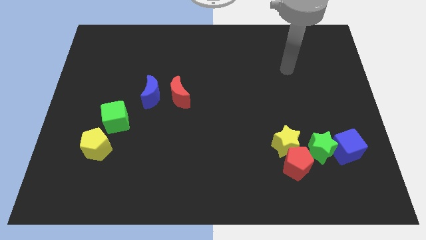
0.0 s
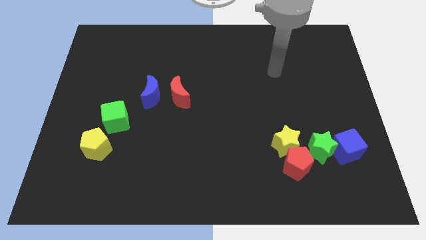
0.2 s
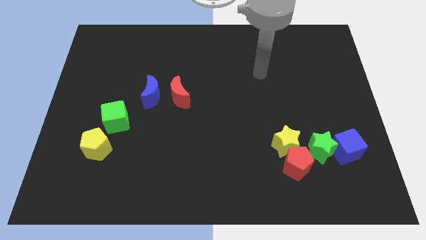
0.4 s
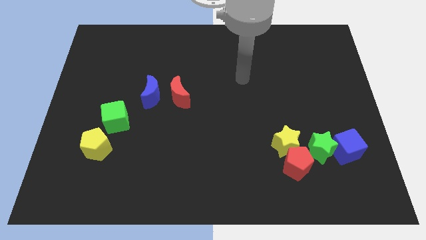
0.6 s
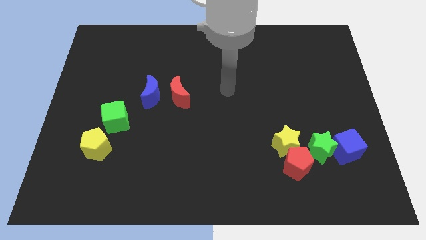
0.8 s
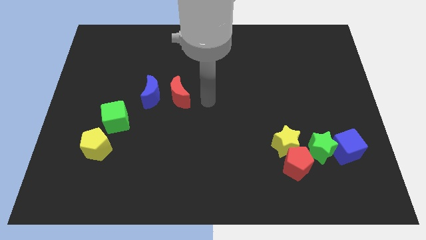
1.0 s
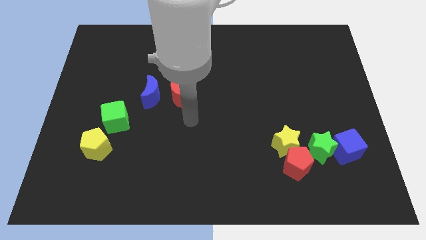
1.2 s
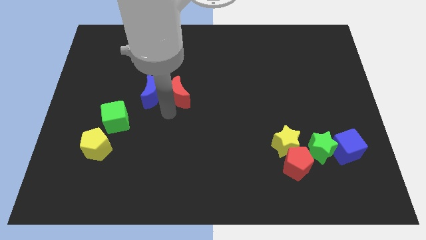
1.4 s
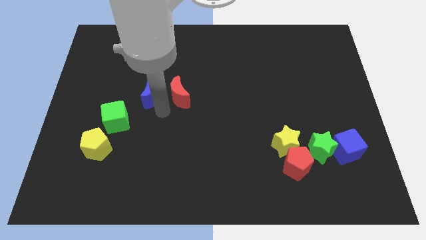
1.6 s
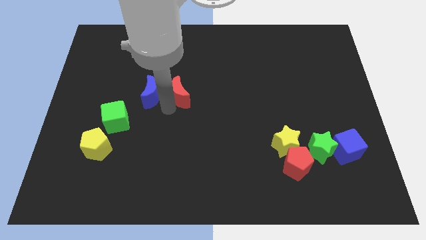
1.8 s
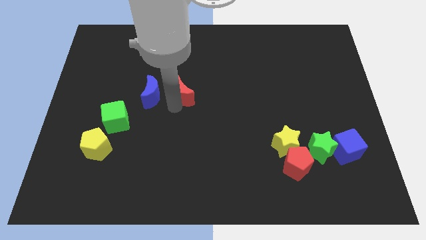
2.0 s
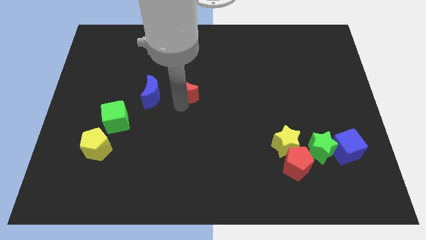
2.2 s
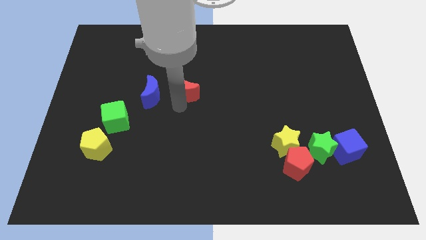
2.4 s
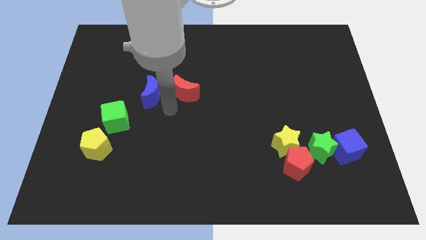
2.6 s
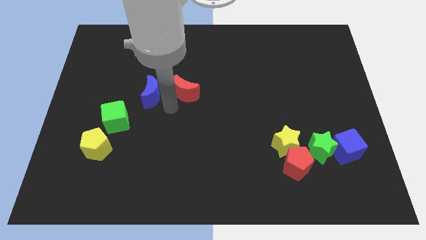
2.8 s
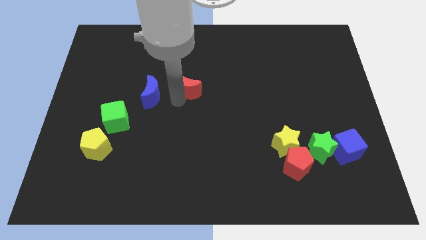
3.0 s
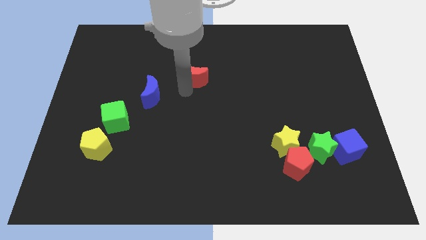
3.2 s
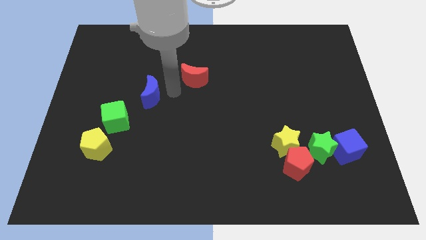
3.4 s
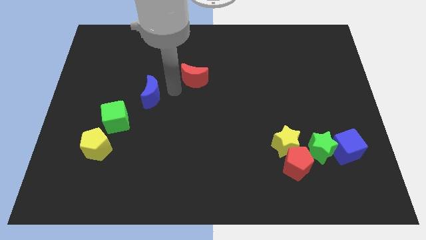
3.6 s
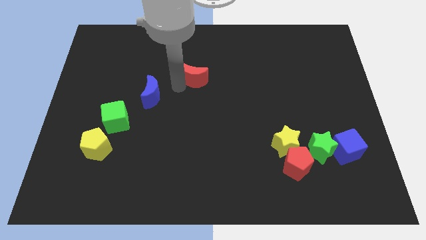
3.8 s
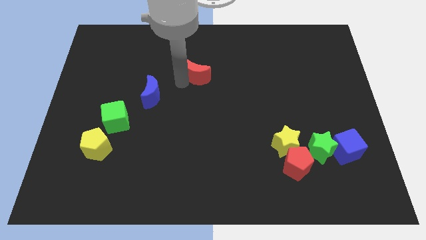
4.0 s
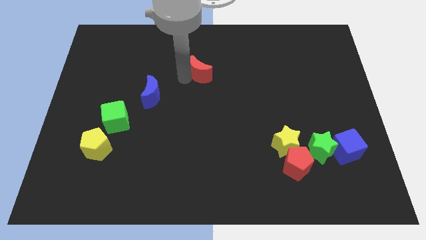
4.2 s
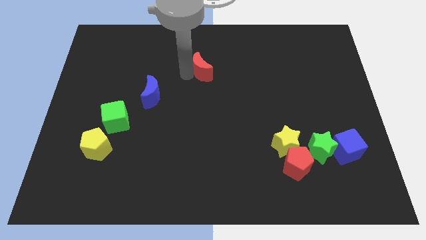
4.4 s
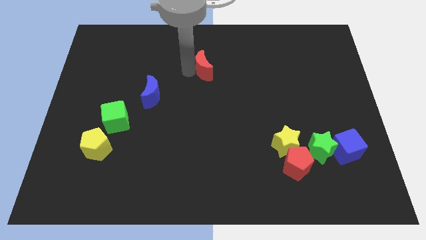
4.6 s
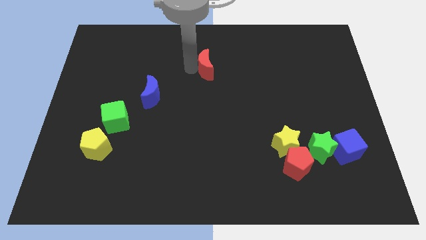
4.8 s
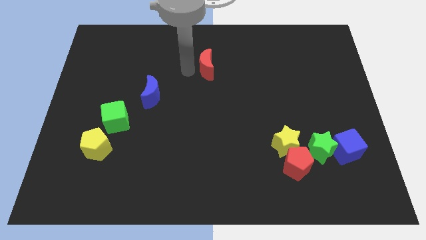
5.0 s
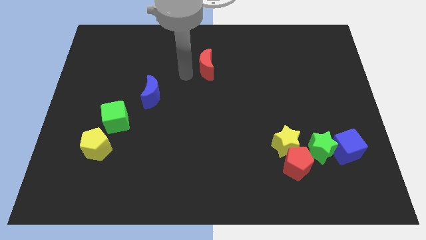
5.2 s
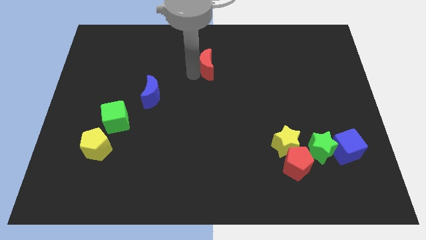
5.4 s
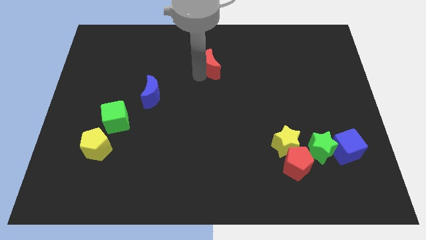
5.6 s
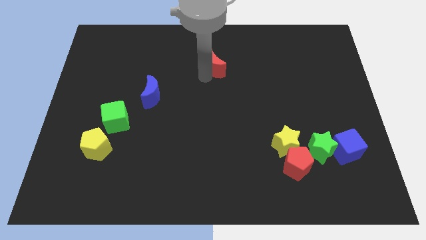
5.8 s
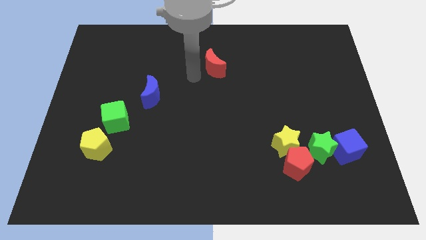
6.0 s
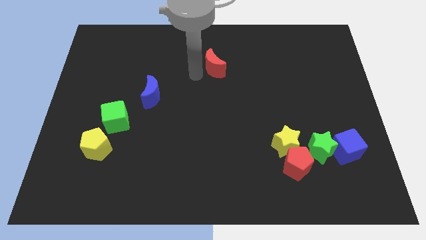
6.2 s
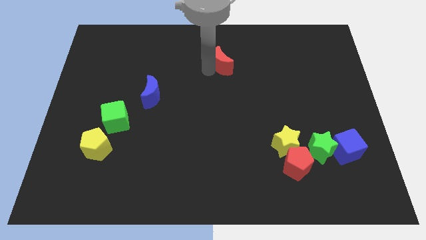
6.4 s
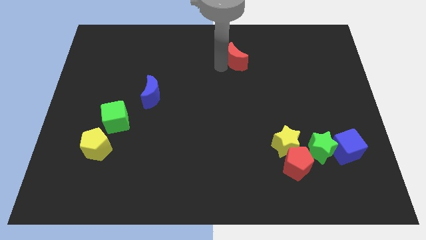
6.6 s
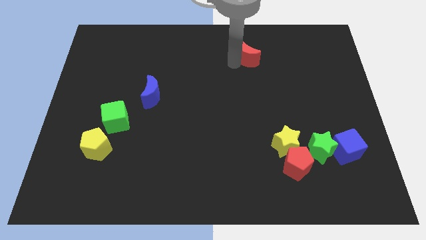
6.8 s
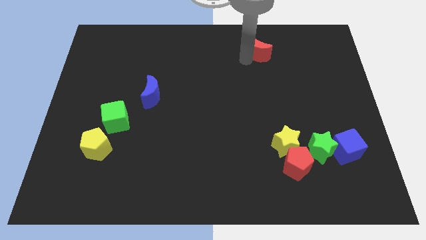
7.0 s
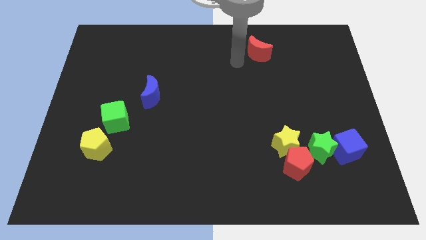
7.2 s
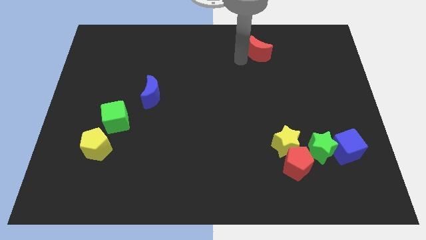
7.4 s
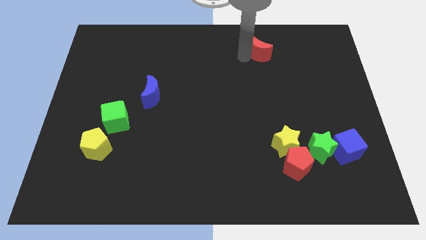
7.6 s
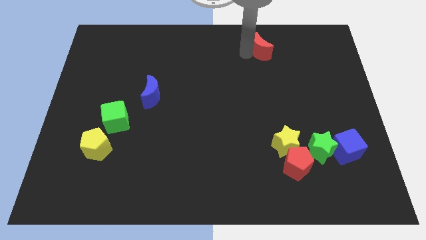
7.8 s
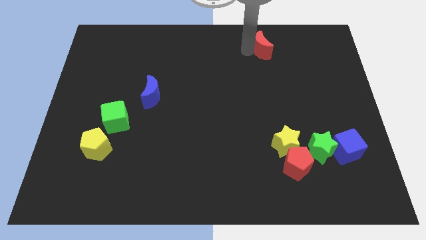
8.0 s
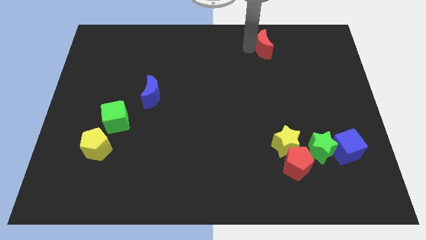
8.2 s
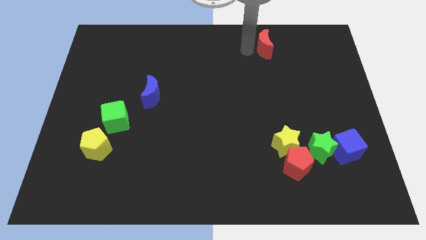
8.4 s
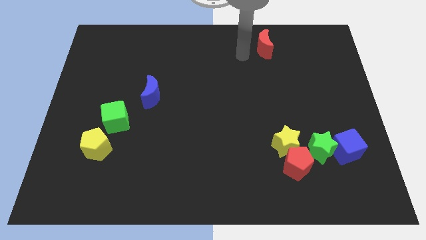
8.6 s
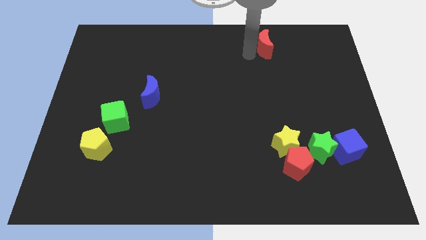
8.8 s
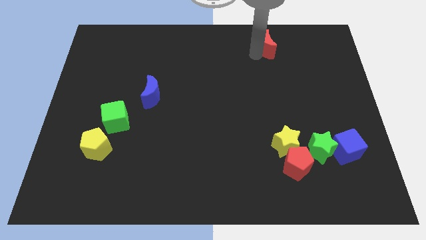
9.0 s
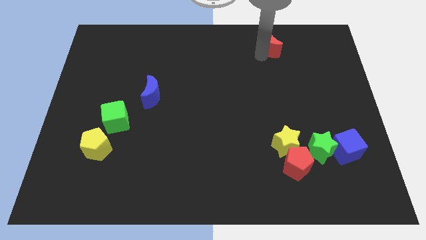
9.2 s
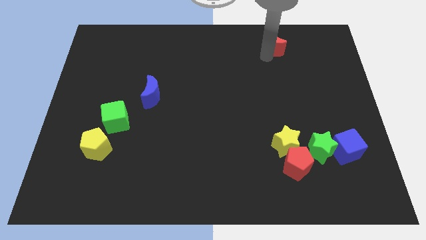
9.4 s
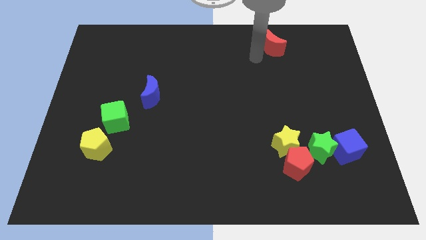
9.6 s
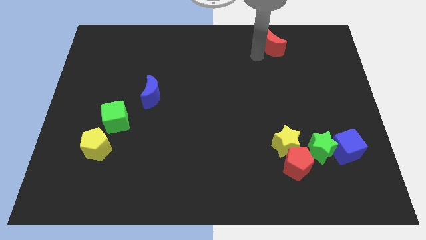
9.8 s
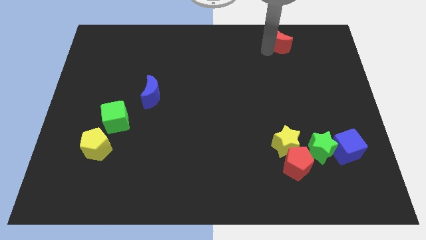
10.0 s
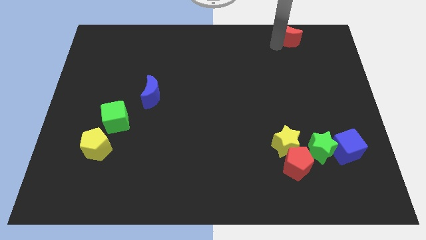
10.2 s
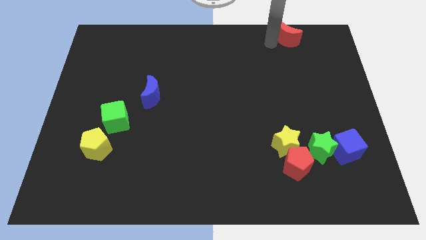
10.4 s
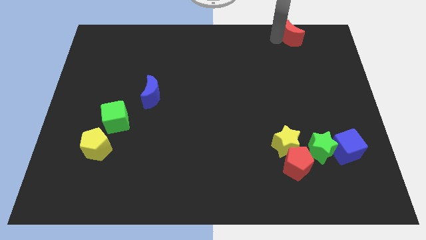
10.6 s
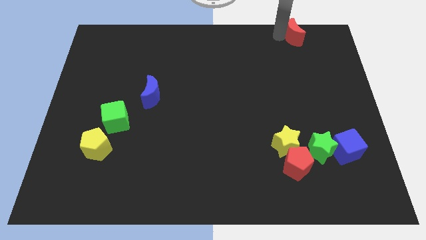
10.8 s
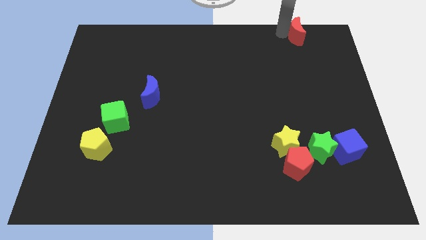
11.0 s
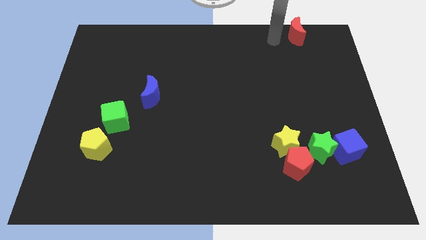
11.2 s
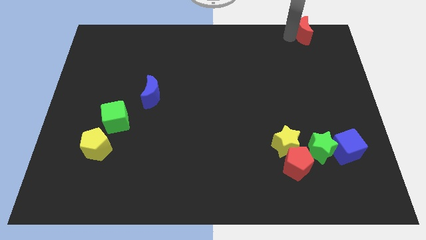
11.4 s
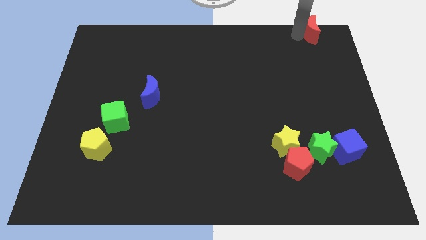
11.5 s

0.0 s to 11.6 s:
slide the red moon to the top right of the board
